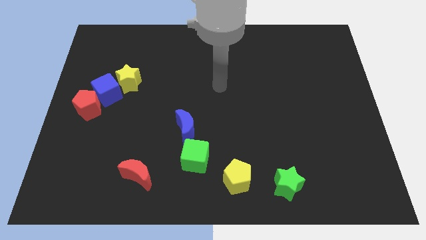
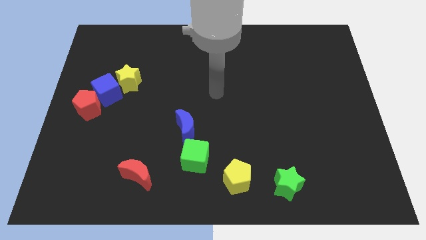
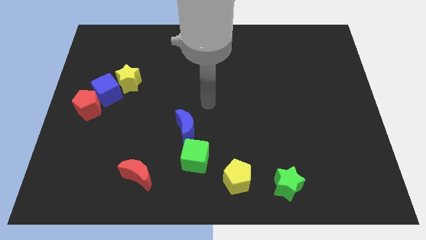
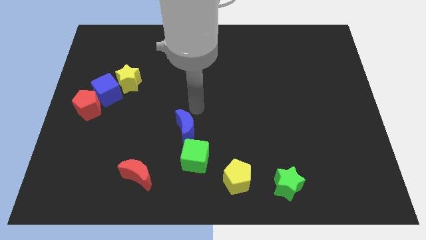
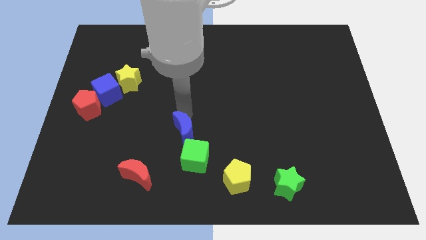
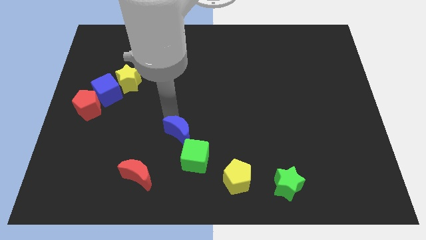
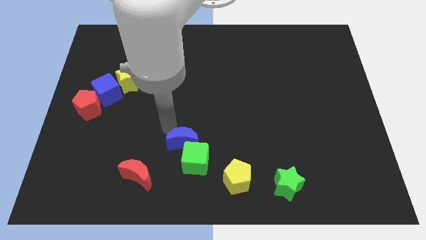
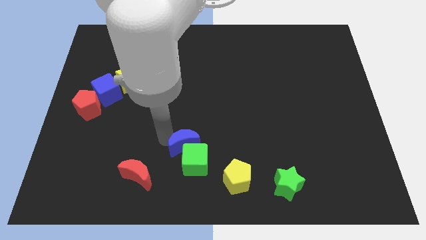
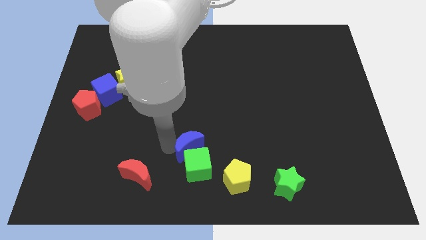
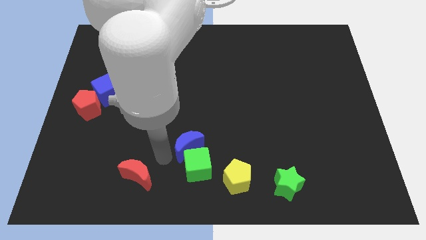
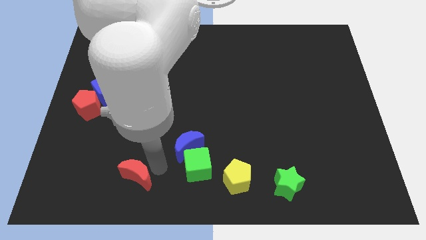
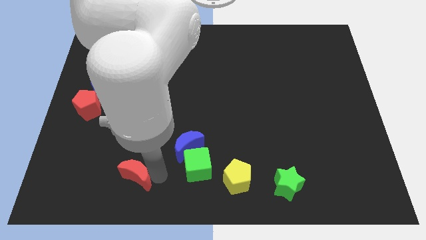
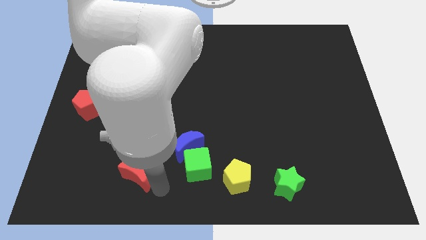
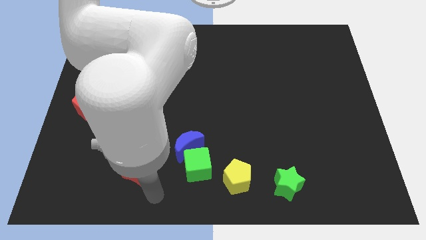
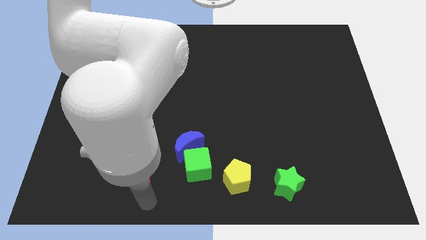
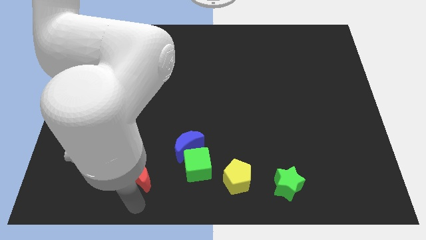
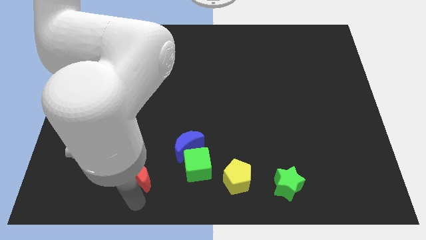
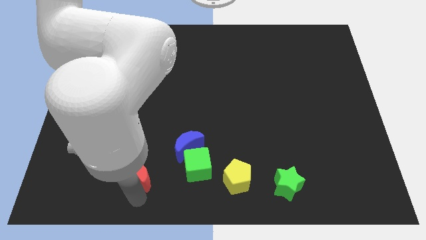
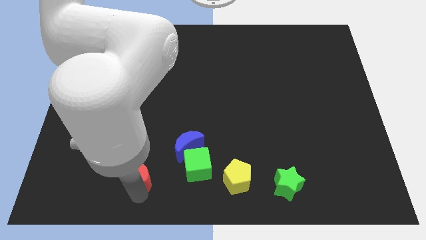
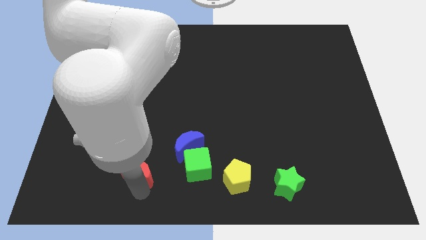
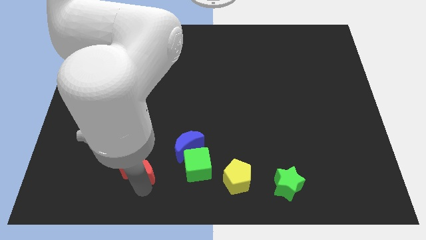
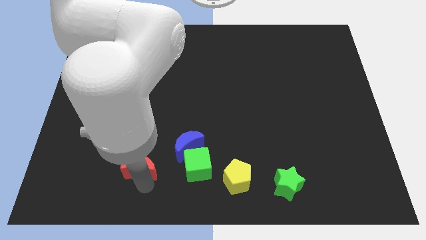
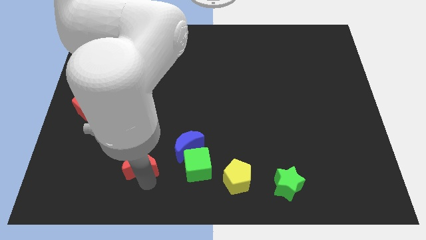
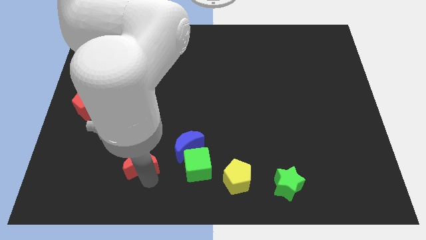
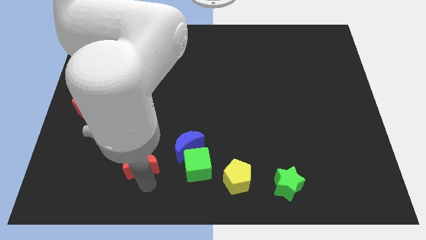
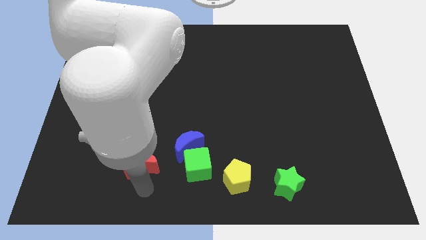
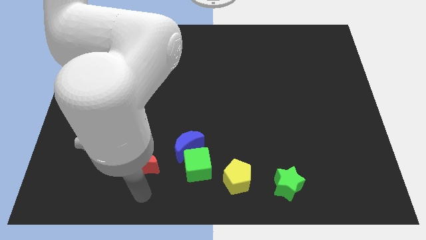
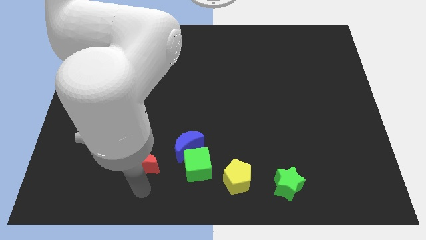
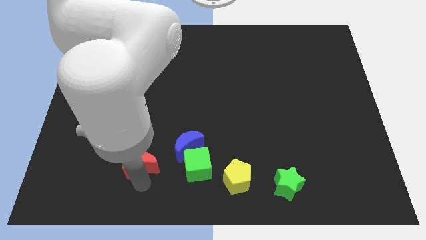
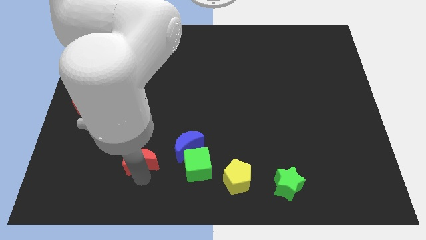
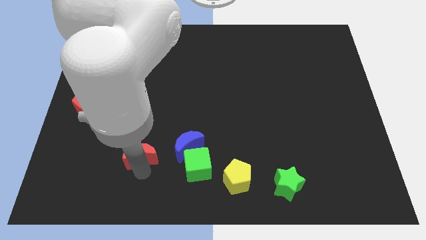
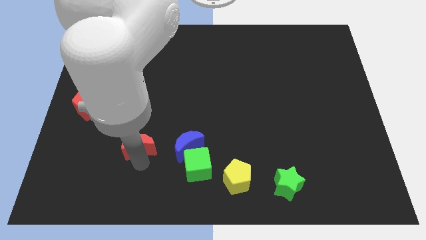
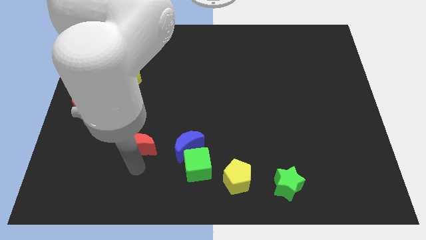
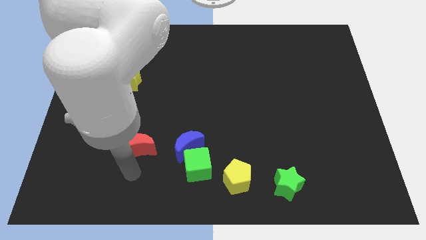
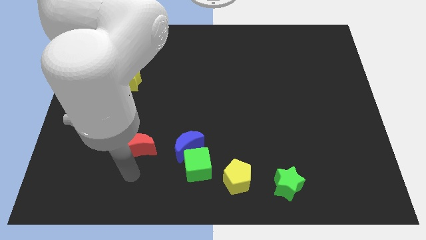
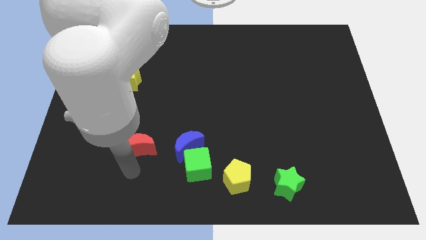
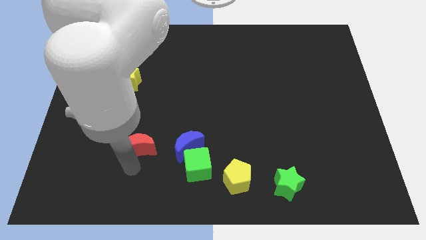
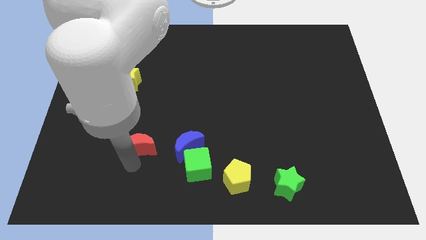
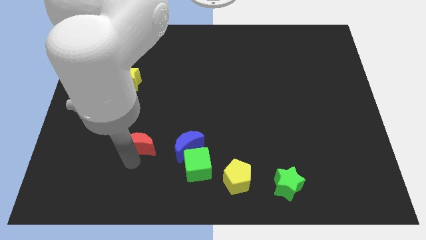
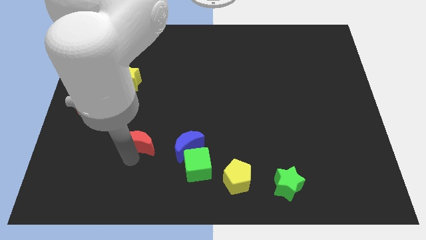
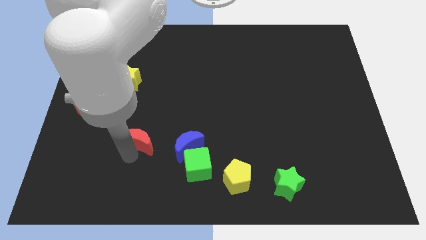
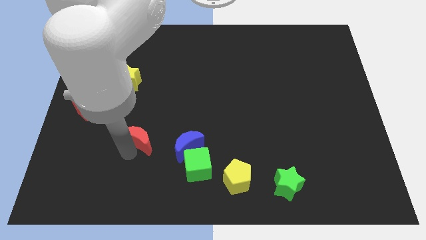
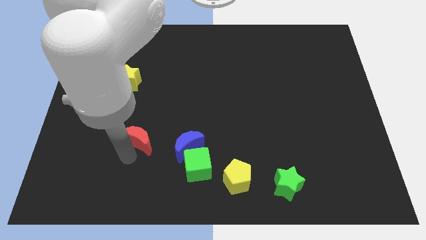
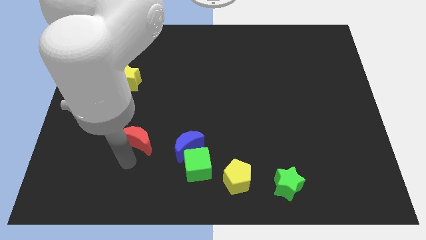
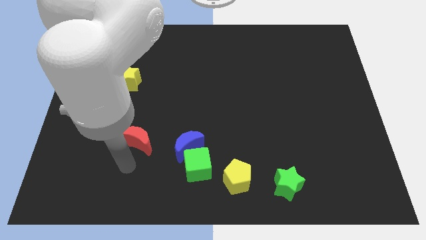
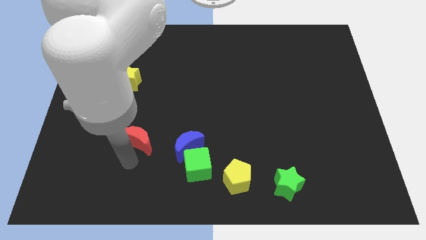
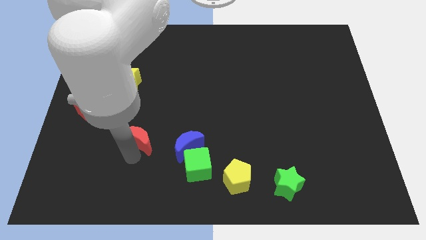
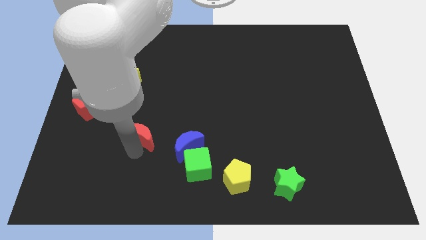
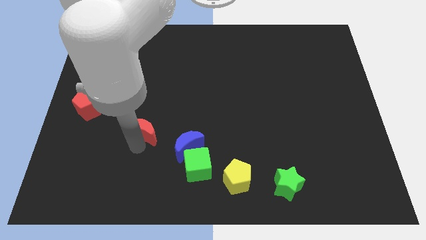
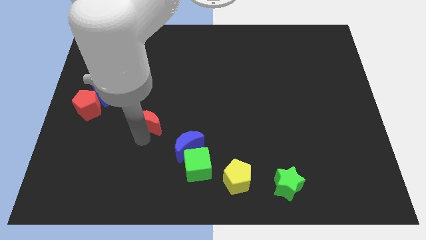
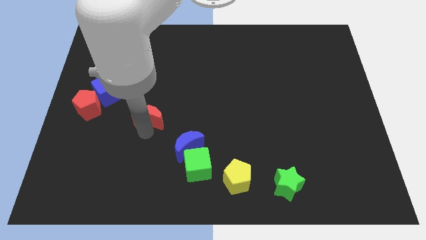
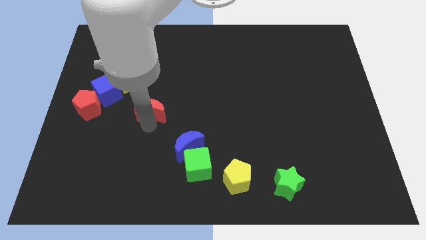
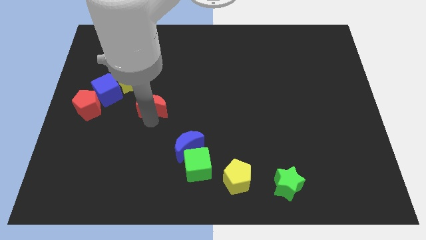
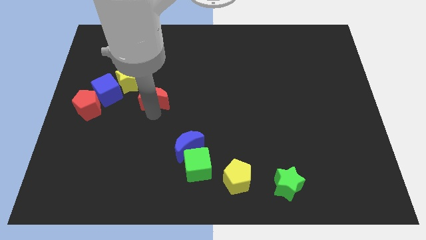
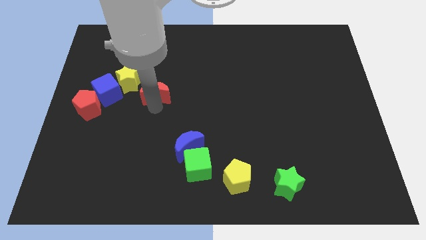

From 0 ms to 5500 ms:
move the red moon upwards

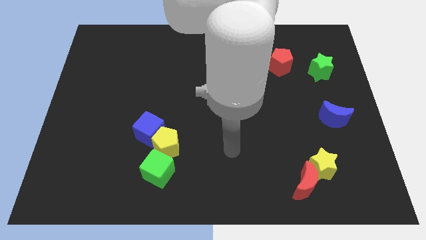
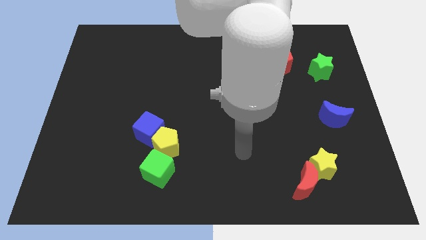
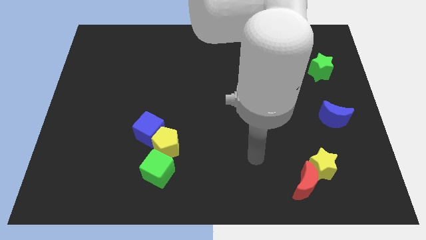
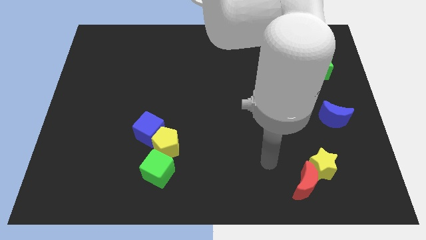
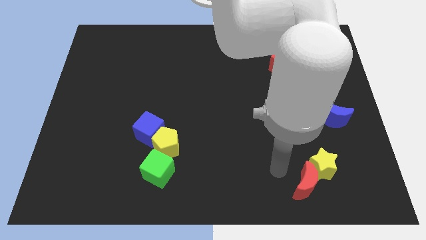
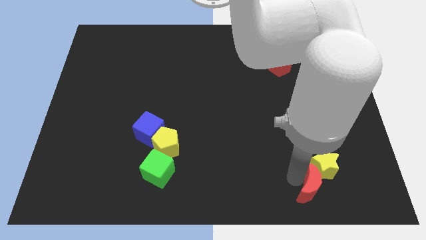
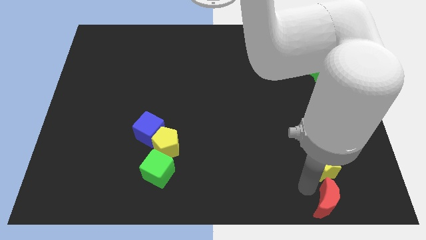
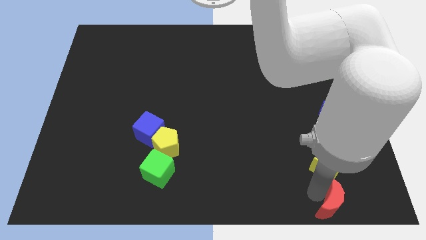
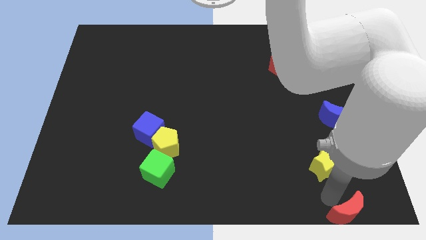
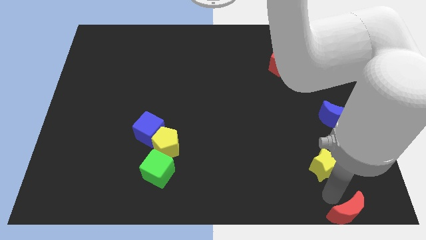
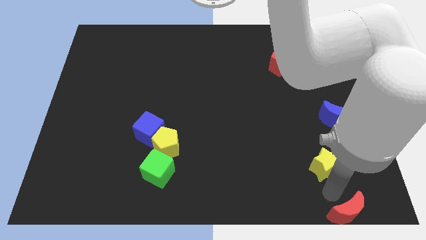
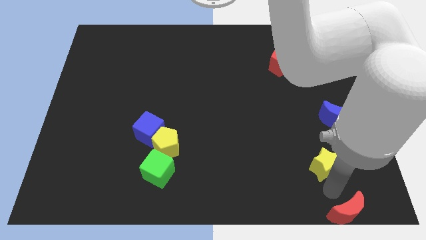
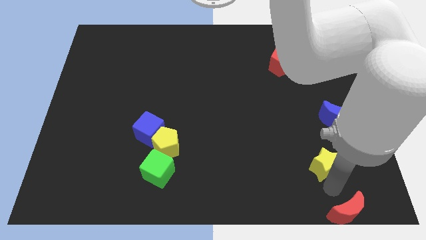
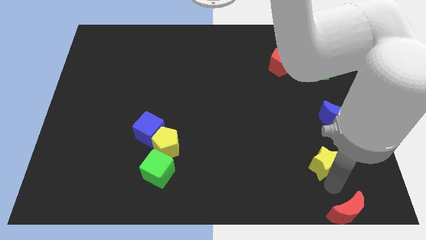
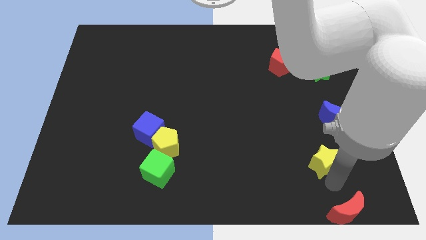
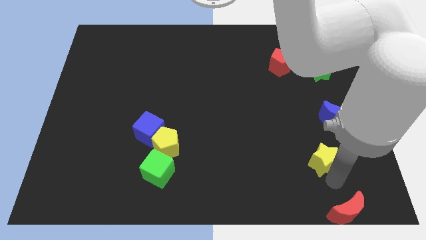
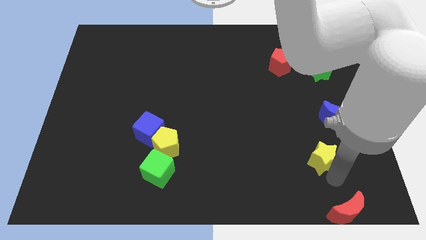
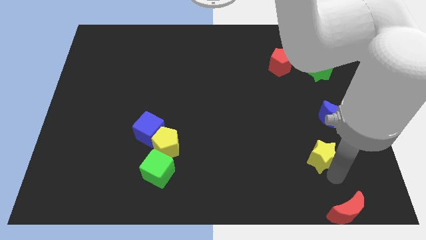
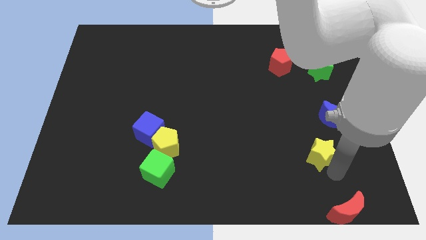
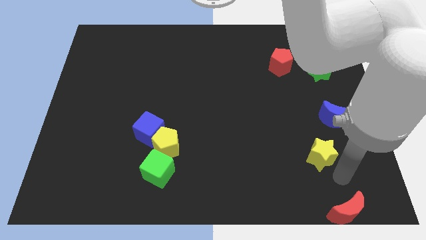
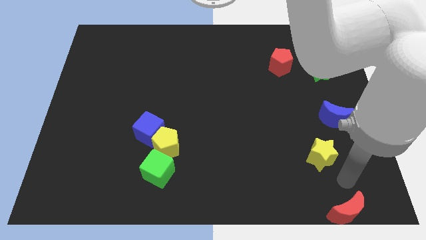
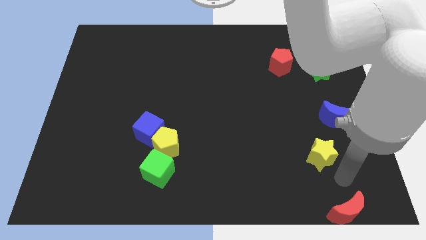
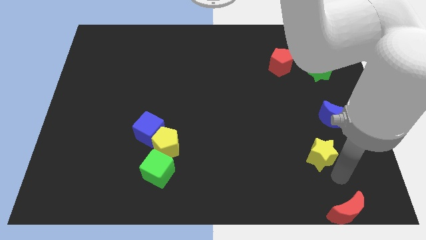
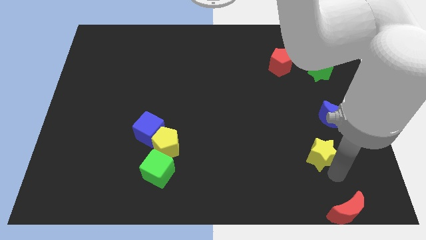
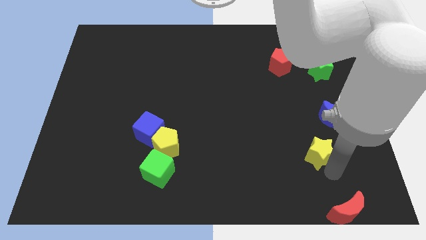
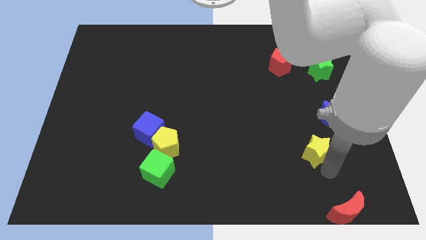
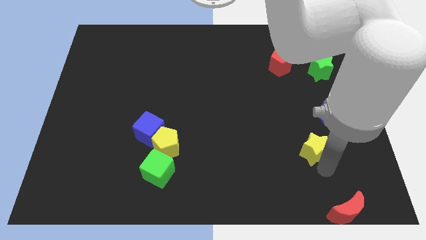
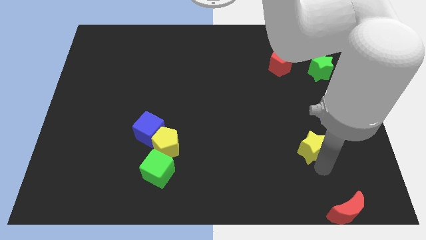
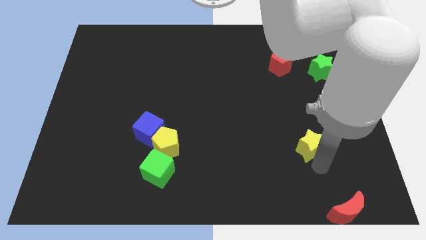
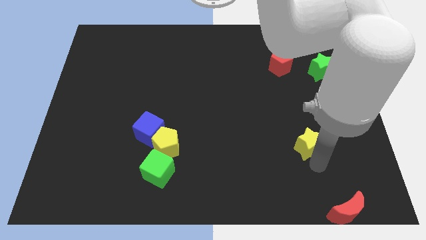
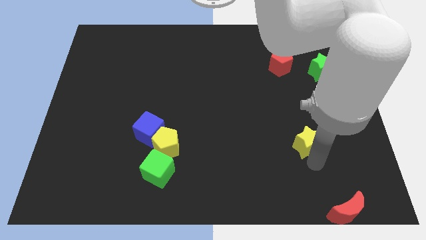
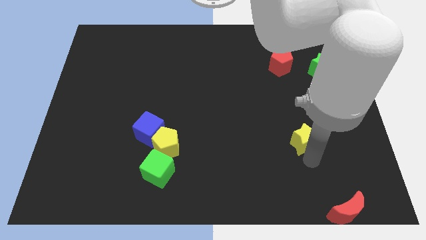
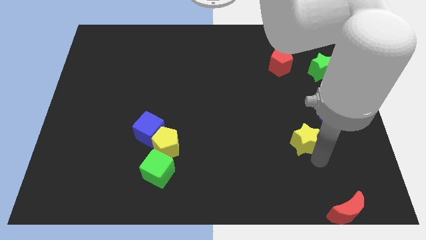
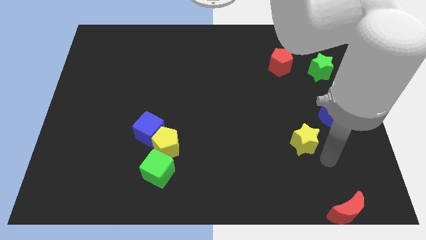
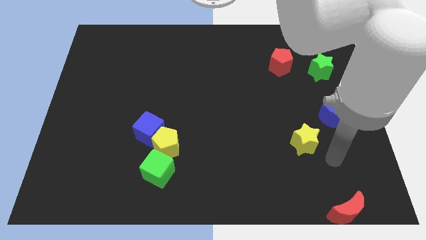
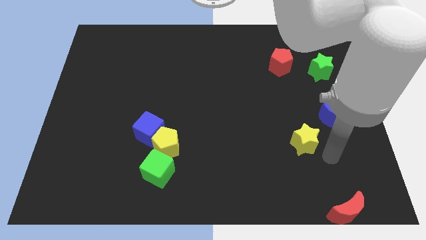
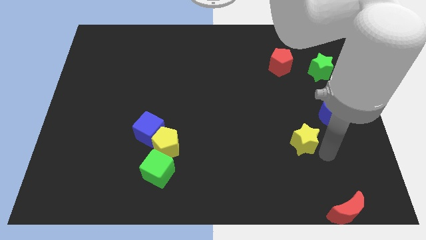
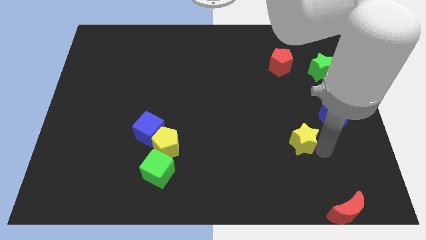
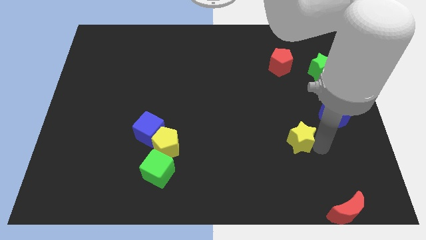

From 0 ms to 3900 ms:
push the yellow star upwards and to the left diagonally slightly
